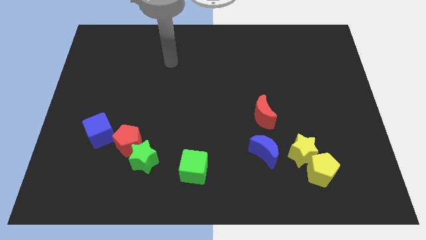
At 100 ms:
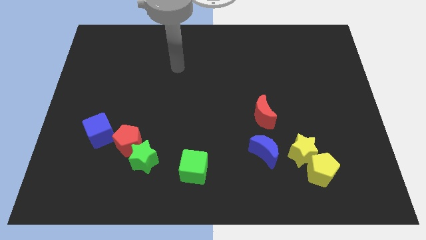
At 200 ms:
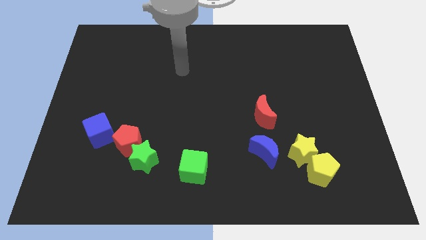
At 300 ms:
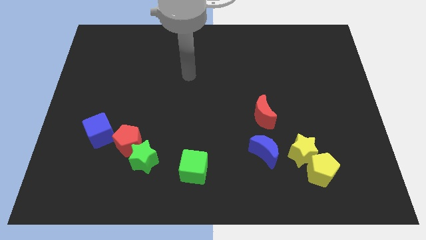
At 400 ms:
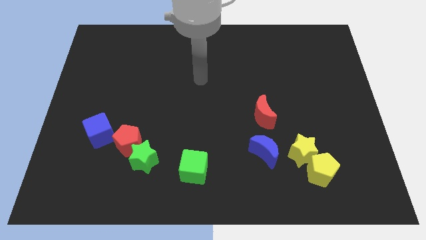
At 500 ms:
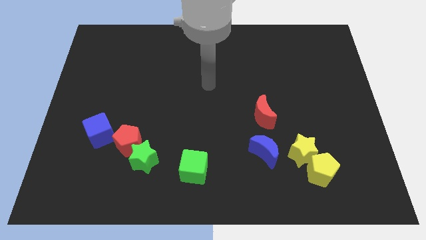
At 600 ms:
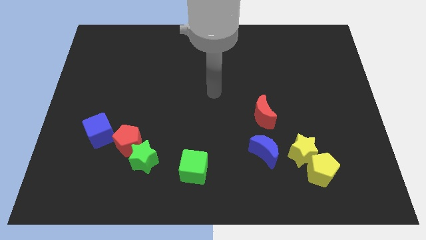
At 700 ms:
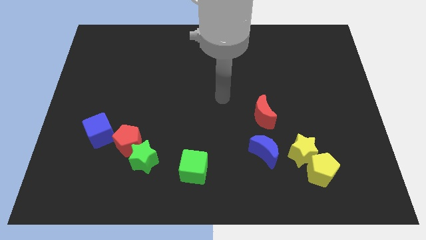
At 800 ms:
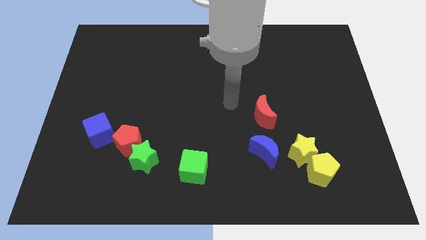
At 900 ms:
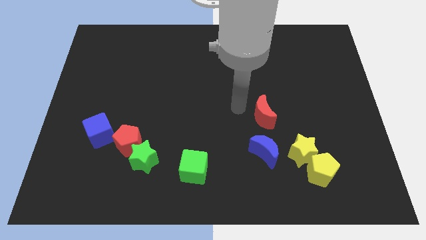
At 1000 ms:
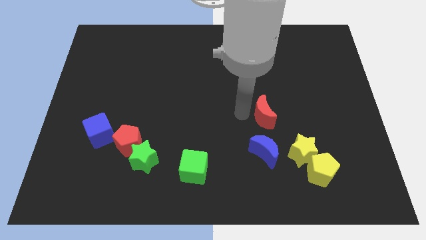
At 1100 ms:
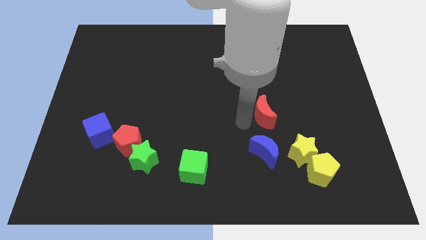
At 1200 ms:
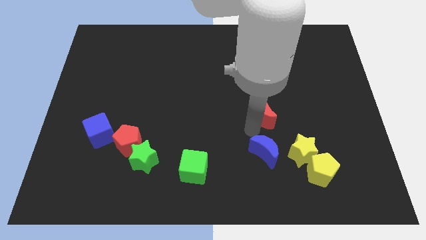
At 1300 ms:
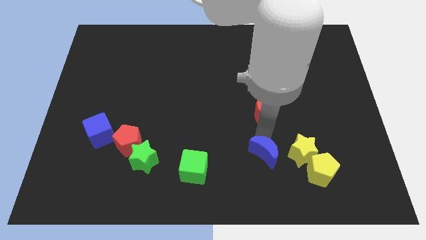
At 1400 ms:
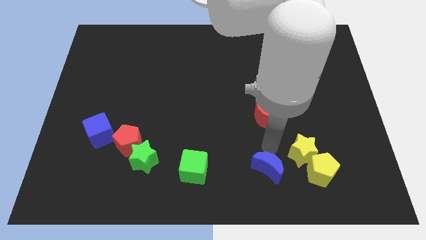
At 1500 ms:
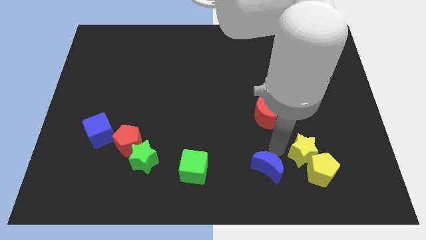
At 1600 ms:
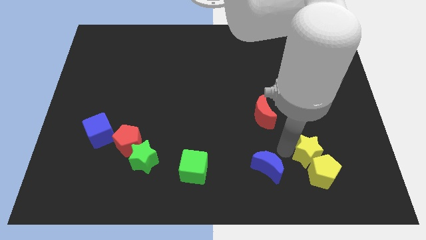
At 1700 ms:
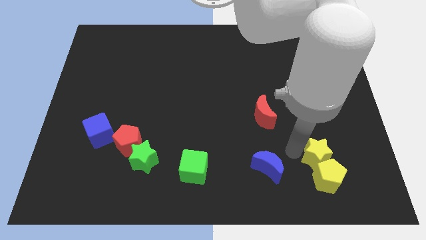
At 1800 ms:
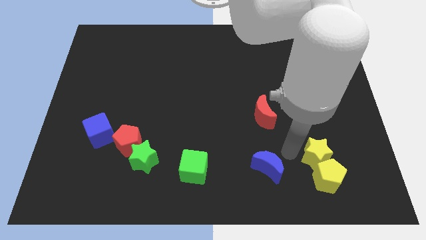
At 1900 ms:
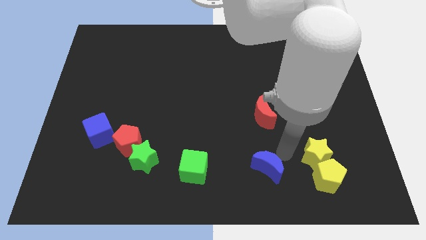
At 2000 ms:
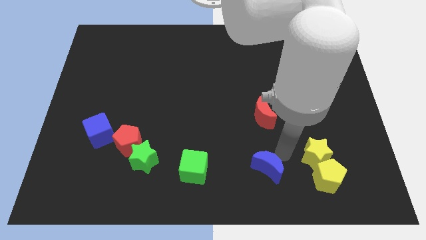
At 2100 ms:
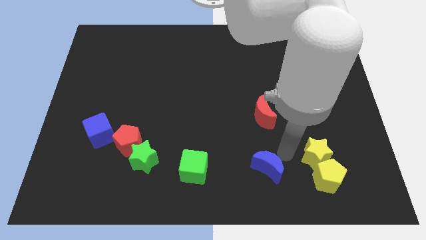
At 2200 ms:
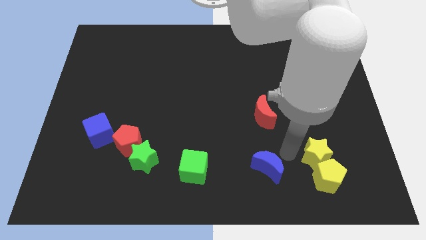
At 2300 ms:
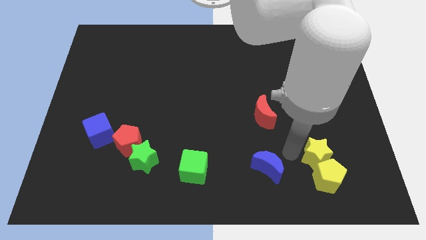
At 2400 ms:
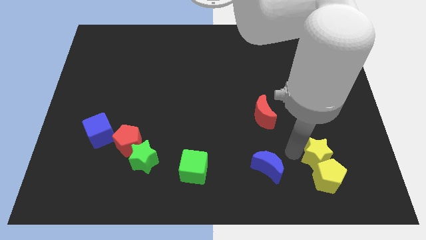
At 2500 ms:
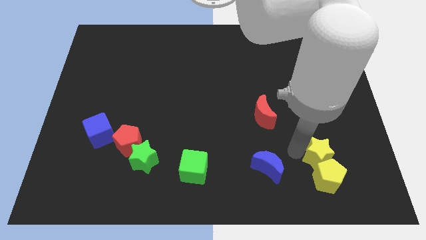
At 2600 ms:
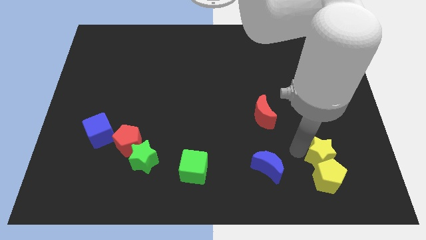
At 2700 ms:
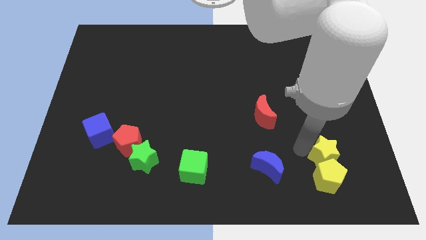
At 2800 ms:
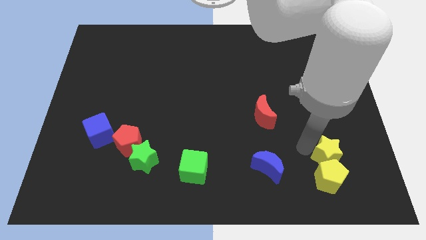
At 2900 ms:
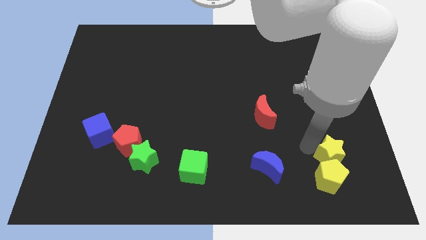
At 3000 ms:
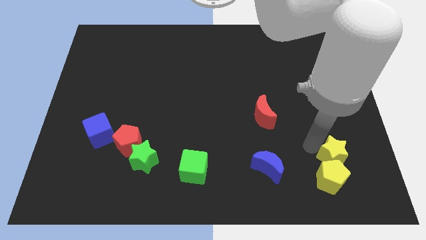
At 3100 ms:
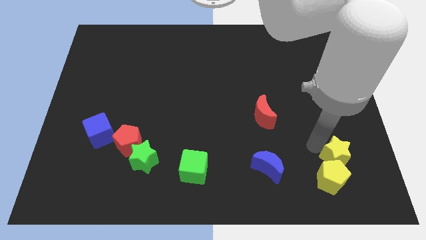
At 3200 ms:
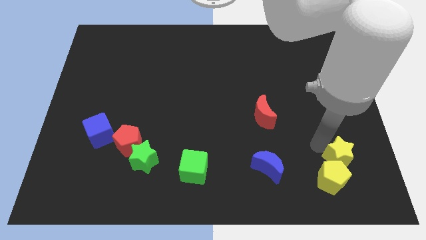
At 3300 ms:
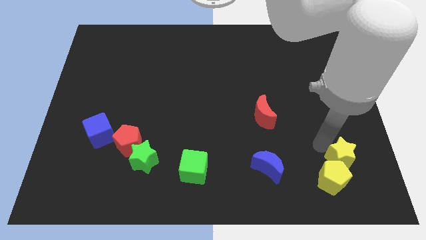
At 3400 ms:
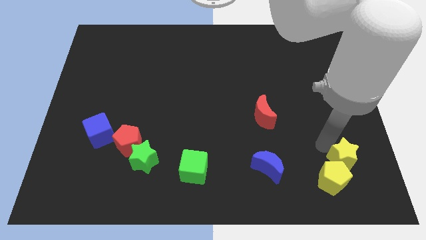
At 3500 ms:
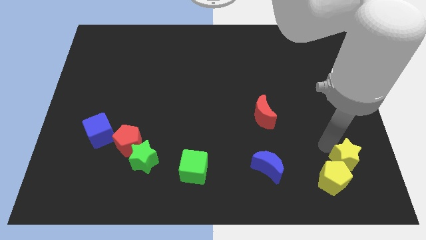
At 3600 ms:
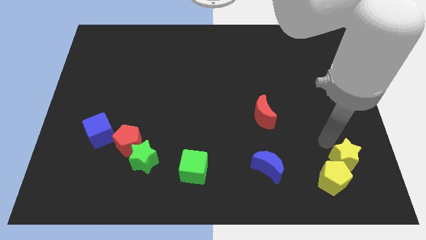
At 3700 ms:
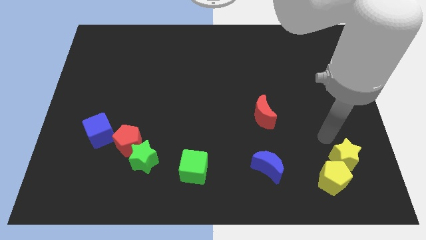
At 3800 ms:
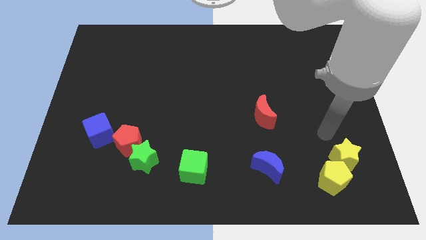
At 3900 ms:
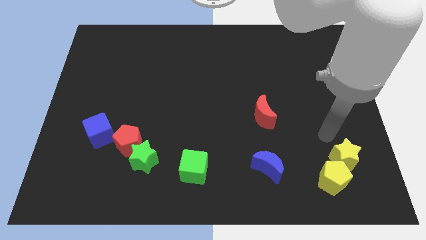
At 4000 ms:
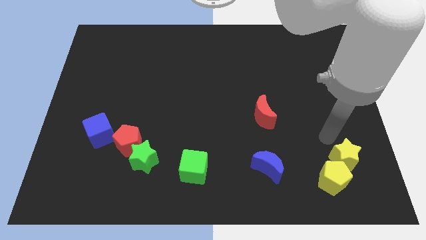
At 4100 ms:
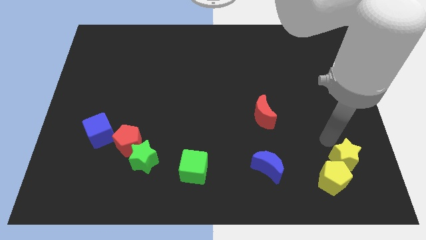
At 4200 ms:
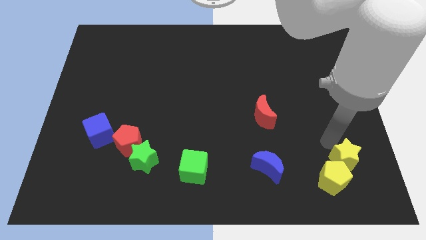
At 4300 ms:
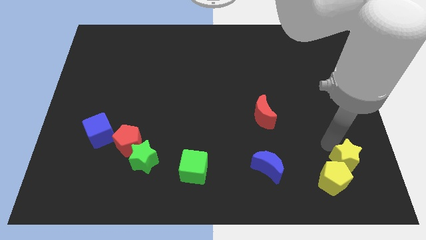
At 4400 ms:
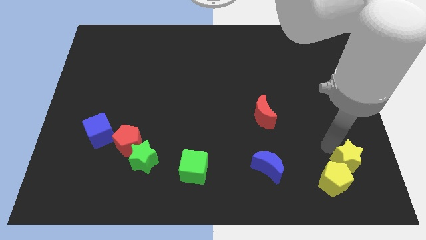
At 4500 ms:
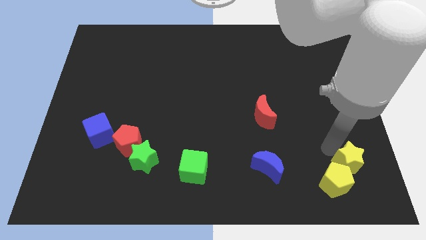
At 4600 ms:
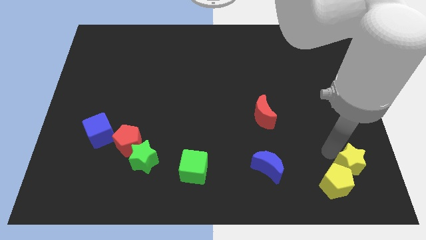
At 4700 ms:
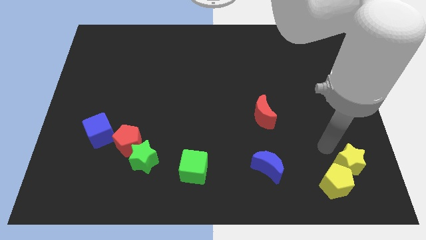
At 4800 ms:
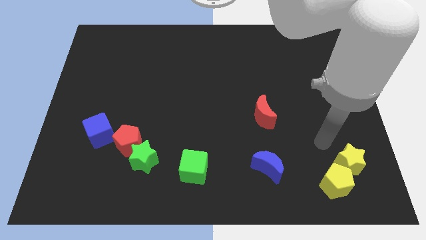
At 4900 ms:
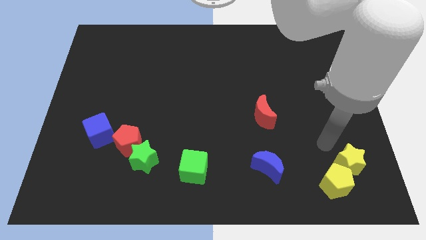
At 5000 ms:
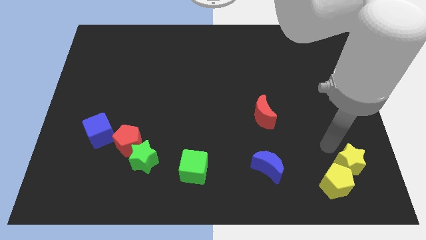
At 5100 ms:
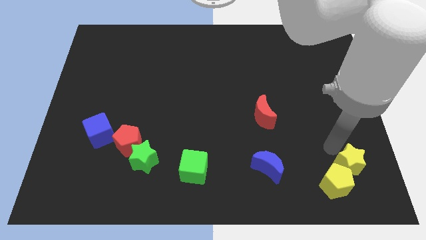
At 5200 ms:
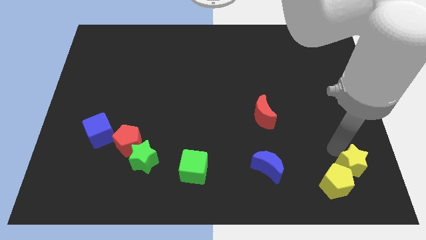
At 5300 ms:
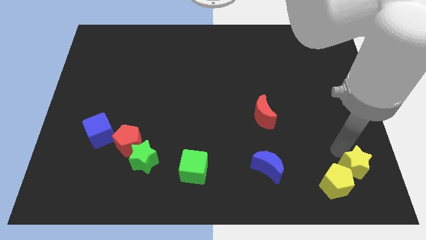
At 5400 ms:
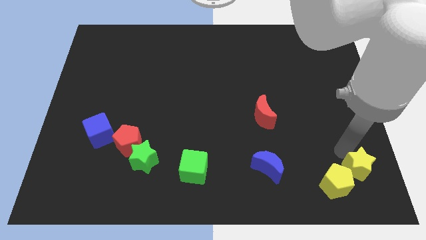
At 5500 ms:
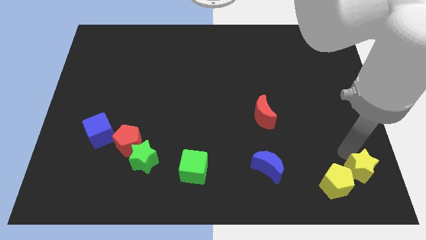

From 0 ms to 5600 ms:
put the yellow star to the lower right corner
